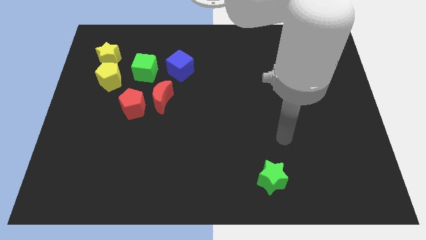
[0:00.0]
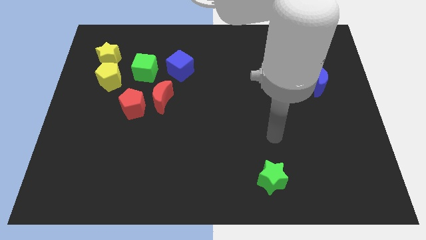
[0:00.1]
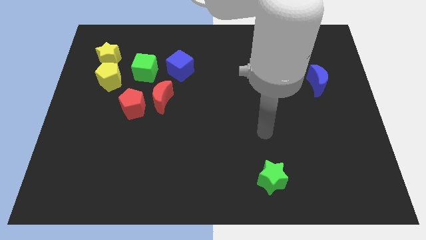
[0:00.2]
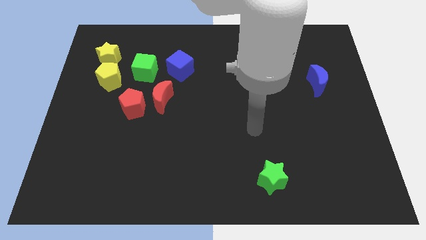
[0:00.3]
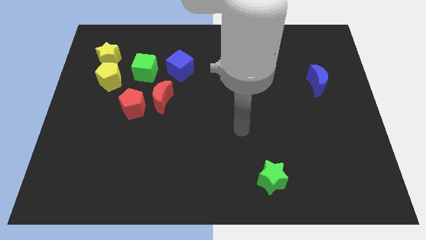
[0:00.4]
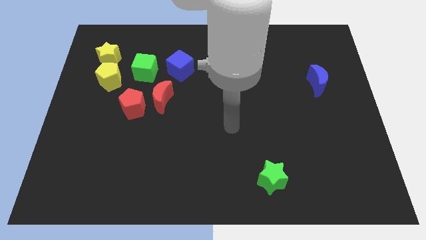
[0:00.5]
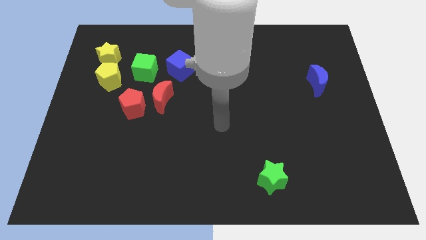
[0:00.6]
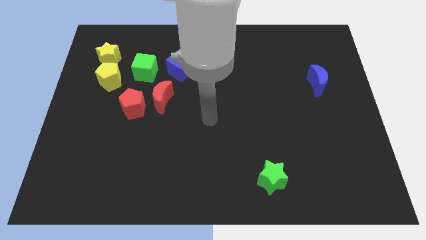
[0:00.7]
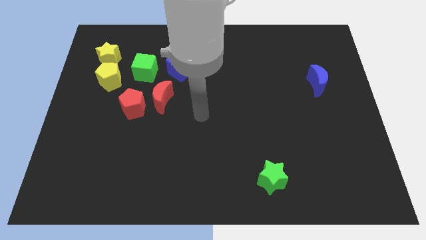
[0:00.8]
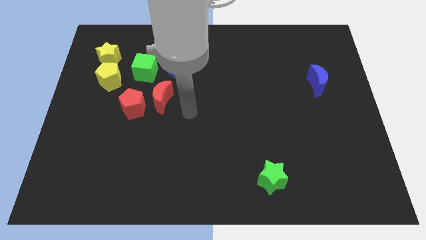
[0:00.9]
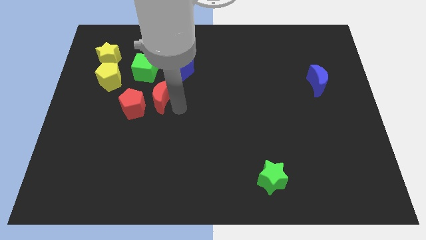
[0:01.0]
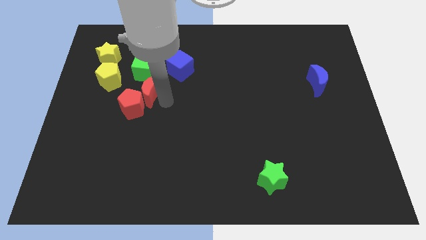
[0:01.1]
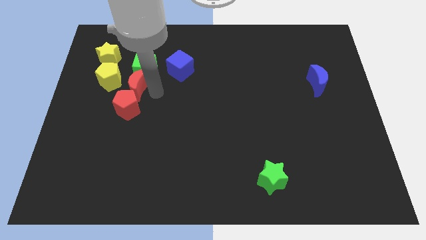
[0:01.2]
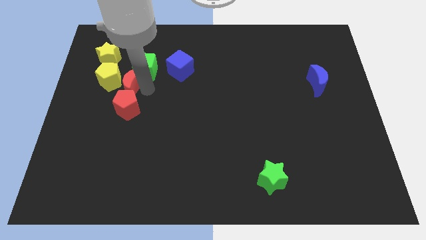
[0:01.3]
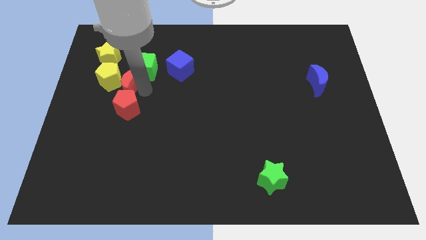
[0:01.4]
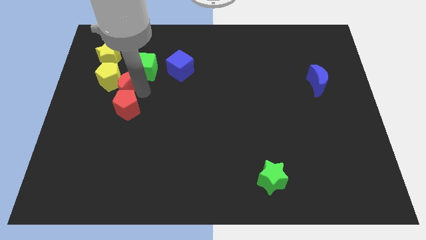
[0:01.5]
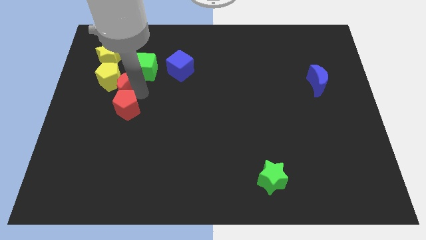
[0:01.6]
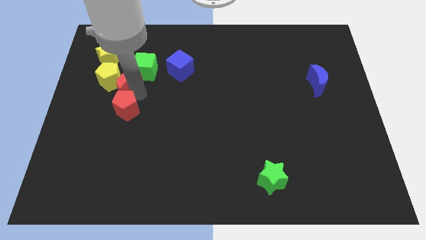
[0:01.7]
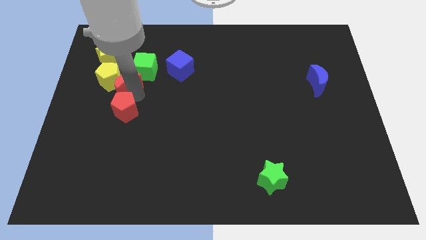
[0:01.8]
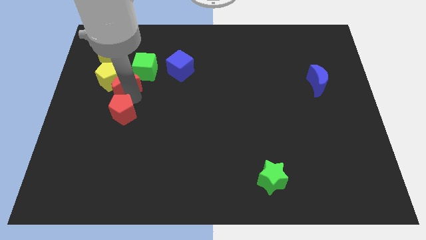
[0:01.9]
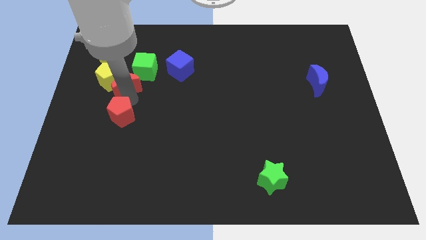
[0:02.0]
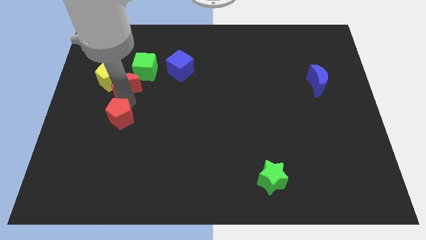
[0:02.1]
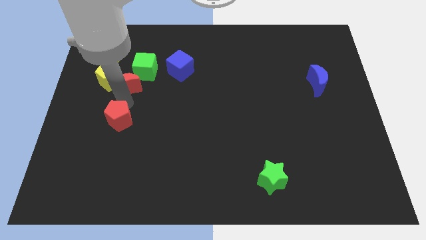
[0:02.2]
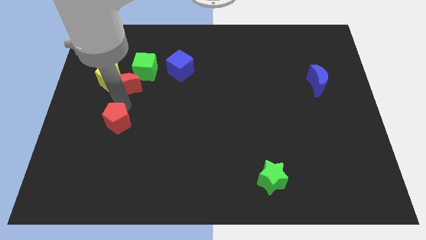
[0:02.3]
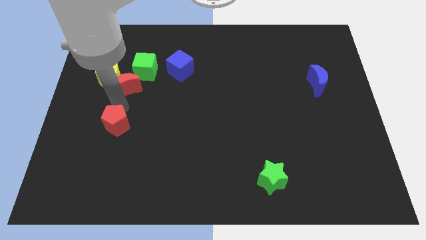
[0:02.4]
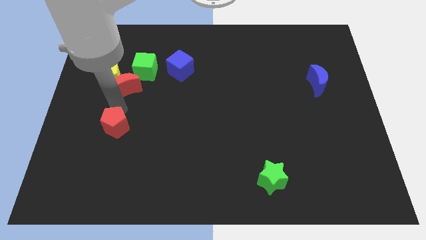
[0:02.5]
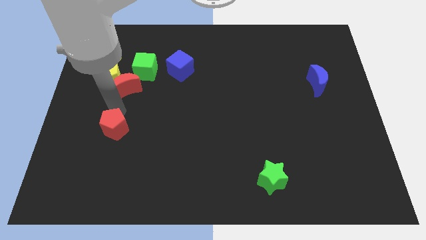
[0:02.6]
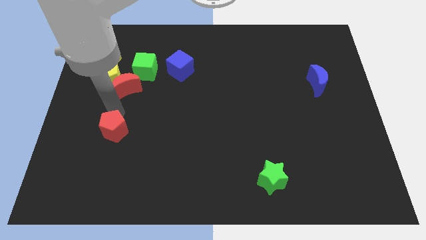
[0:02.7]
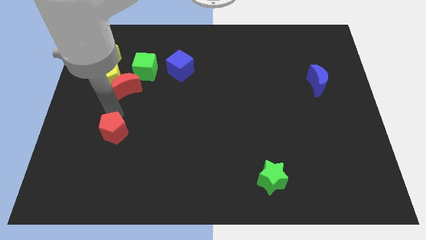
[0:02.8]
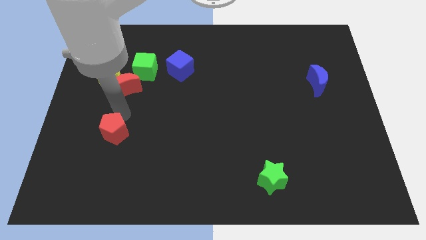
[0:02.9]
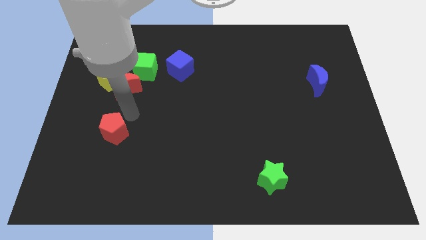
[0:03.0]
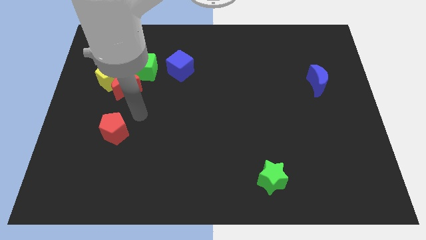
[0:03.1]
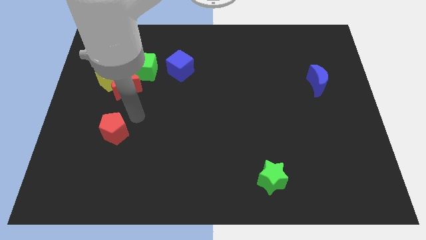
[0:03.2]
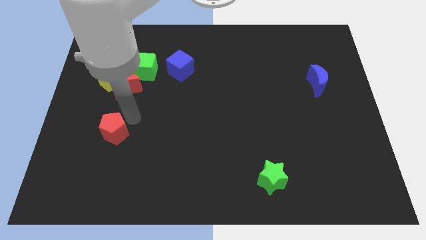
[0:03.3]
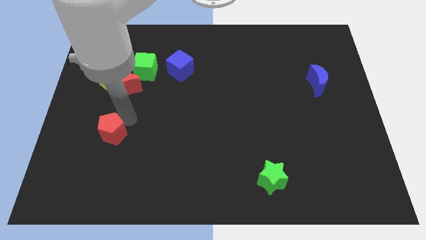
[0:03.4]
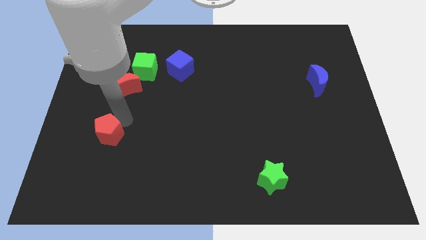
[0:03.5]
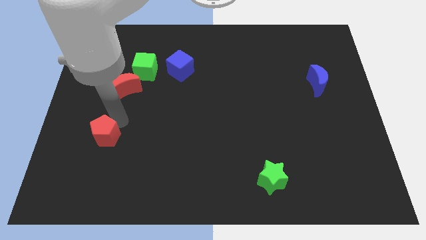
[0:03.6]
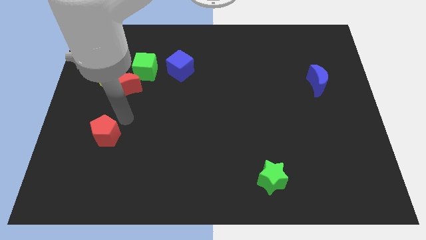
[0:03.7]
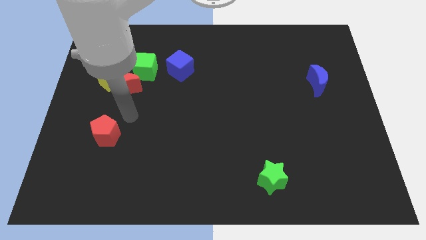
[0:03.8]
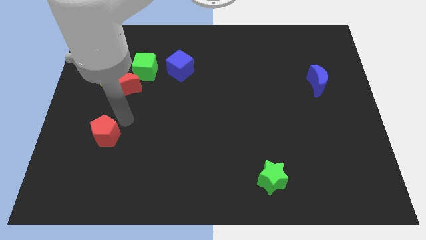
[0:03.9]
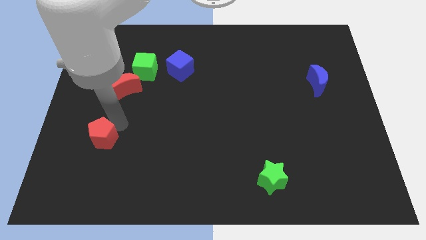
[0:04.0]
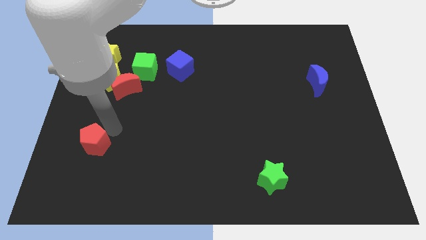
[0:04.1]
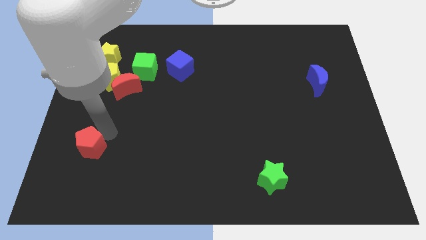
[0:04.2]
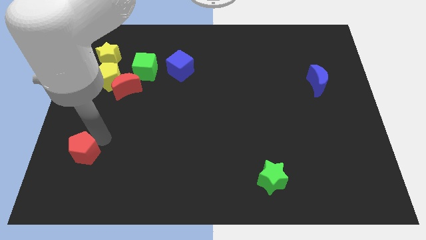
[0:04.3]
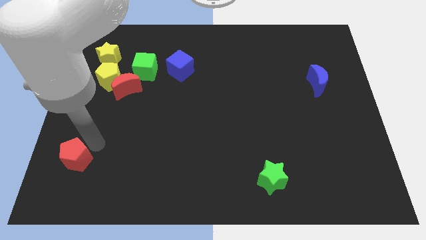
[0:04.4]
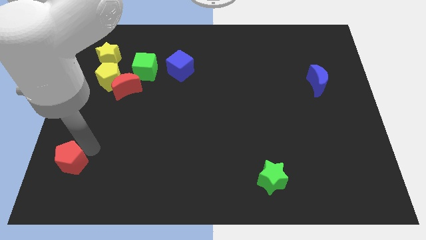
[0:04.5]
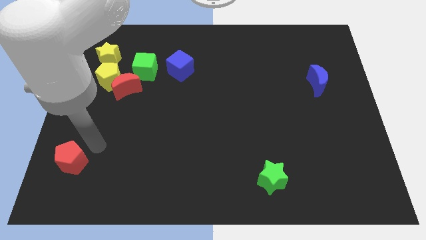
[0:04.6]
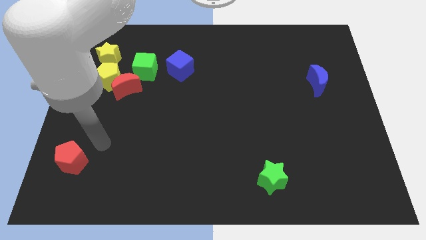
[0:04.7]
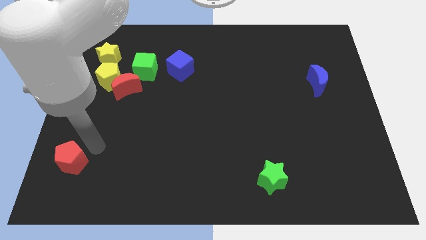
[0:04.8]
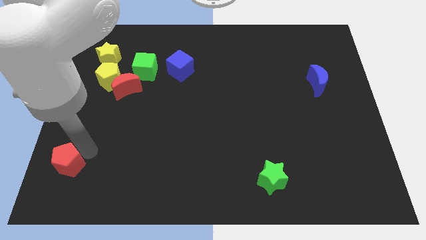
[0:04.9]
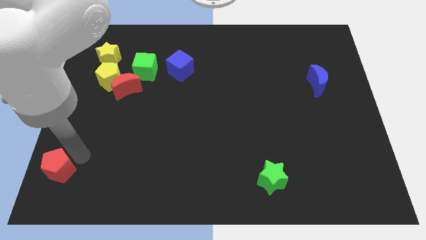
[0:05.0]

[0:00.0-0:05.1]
push the red pentagon to the bottom left

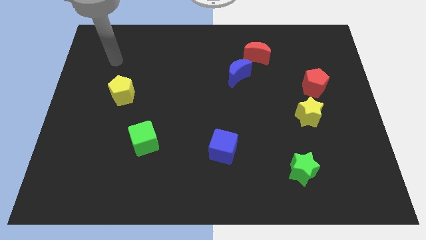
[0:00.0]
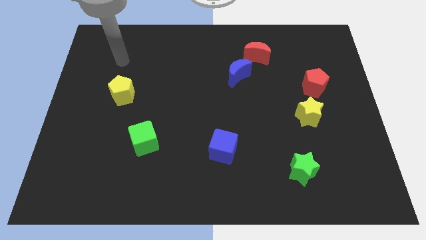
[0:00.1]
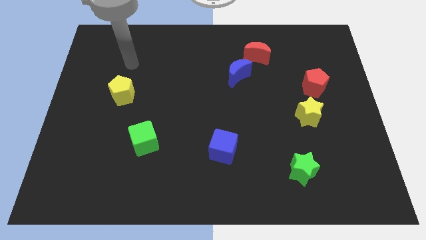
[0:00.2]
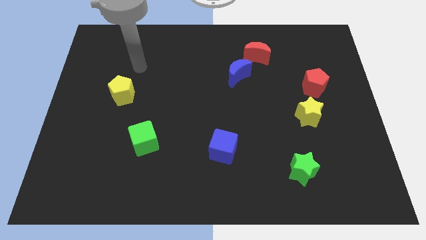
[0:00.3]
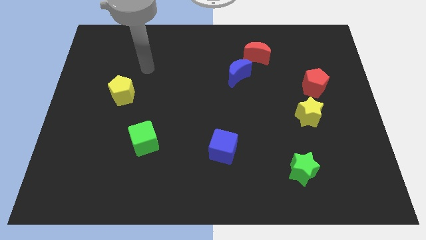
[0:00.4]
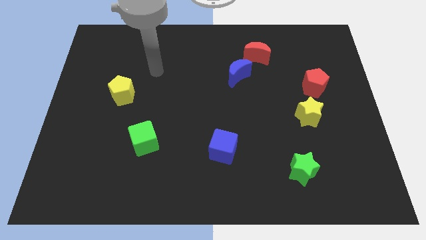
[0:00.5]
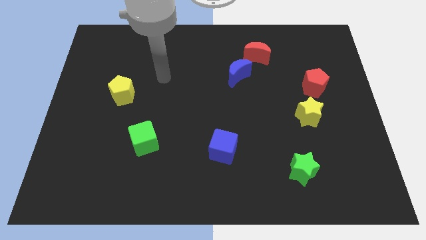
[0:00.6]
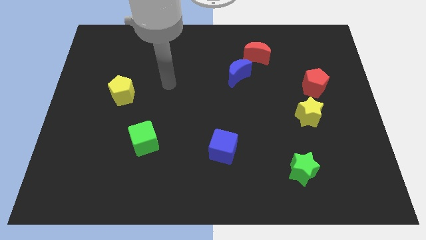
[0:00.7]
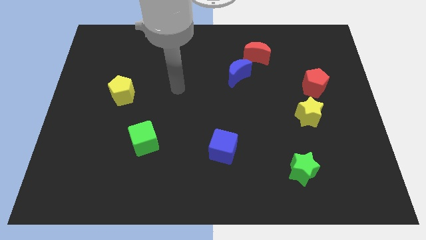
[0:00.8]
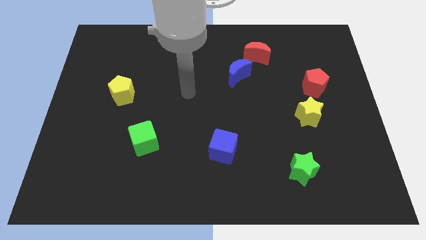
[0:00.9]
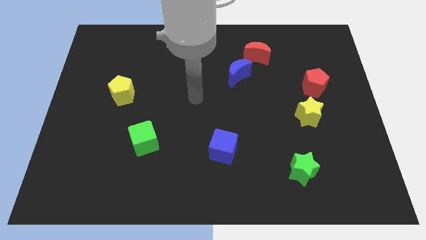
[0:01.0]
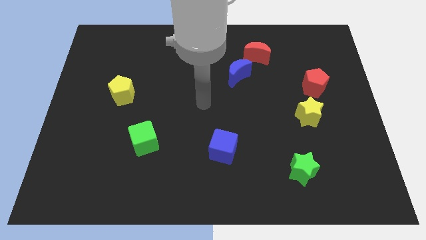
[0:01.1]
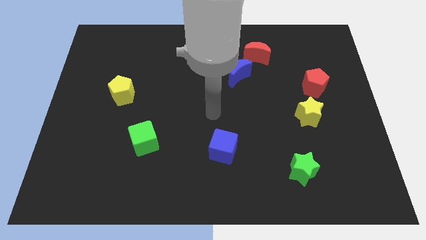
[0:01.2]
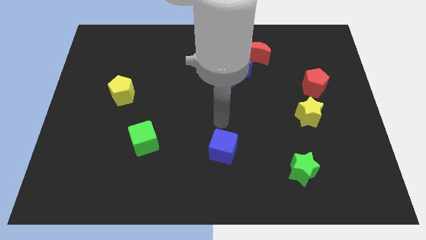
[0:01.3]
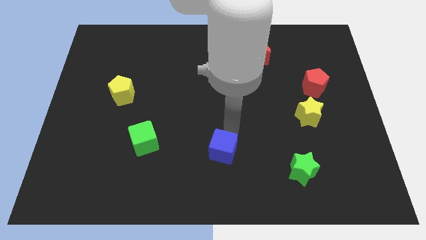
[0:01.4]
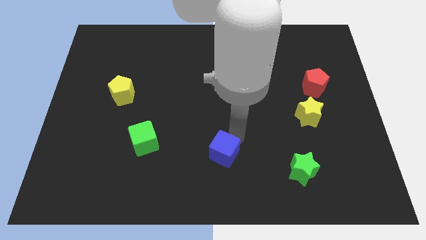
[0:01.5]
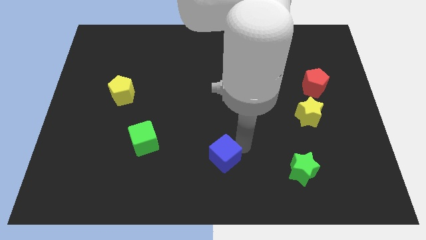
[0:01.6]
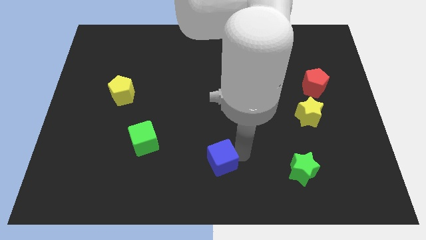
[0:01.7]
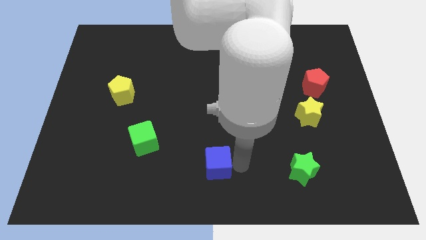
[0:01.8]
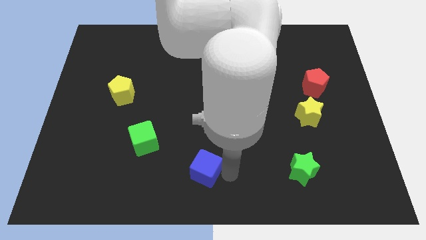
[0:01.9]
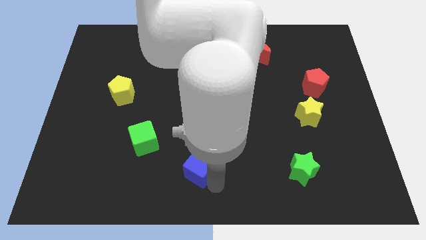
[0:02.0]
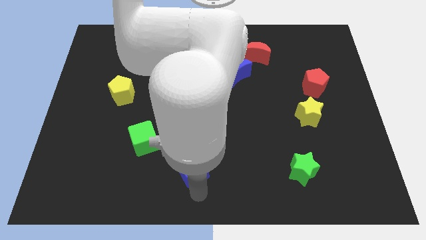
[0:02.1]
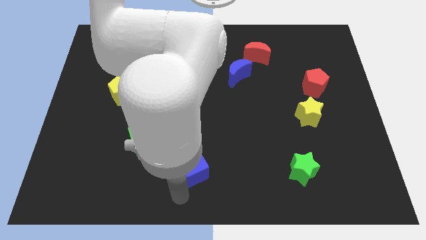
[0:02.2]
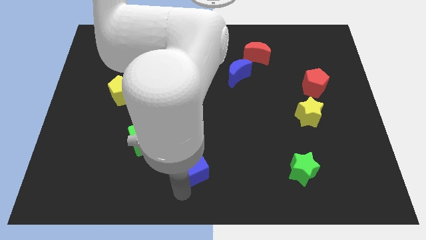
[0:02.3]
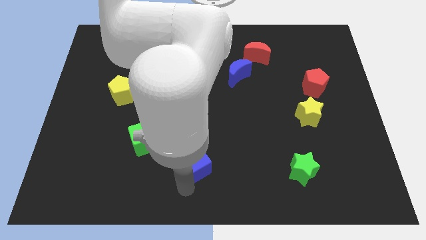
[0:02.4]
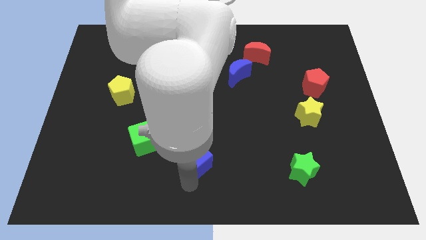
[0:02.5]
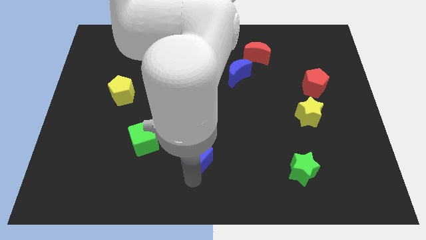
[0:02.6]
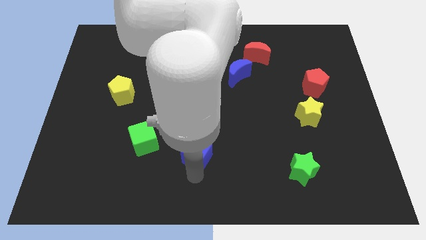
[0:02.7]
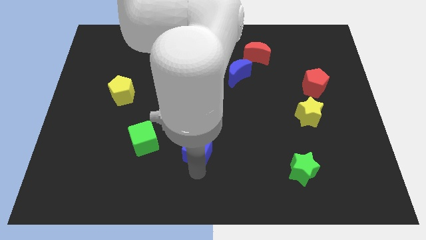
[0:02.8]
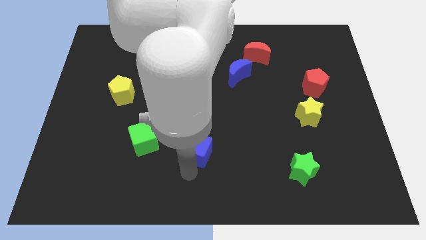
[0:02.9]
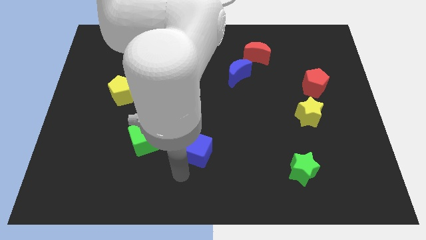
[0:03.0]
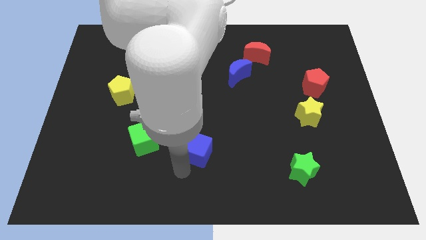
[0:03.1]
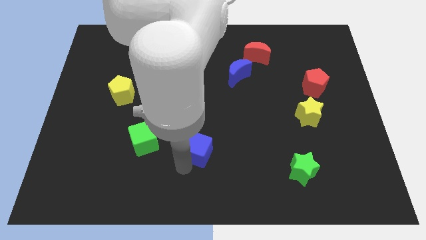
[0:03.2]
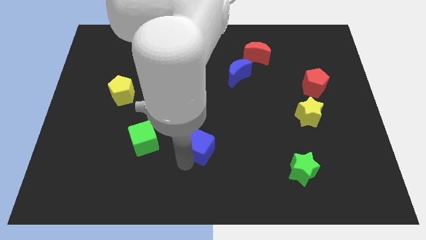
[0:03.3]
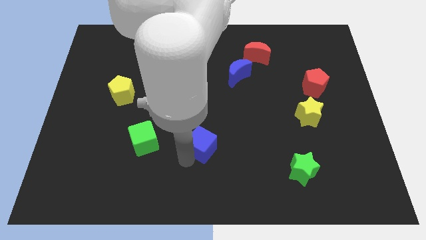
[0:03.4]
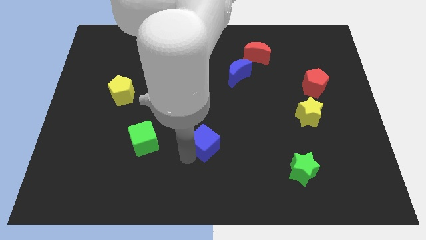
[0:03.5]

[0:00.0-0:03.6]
move the blue cube to the center of the board
